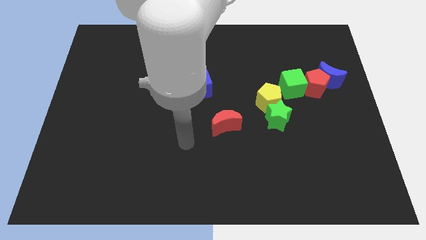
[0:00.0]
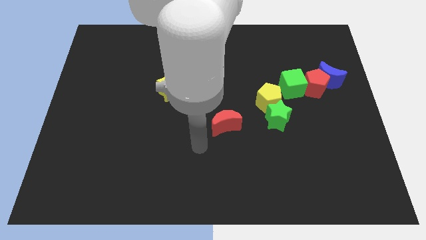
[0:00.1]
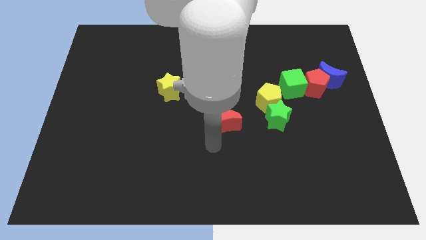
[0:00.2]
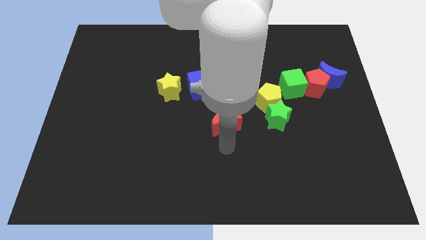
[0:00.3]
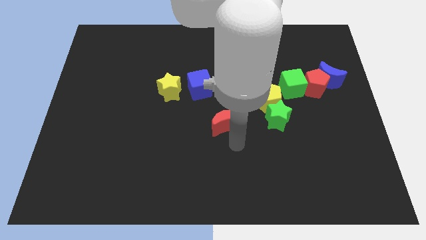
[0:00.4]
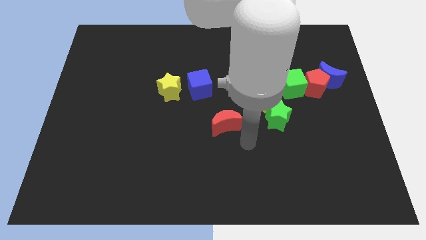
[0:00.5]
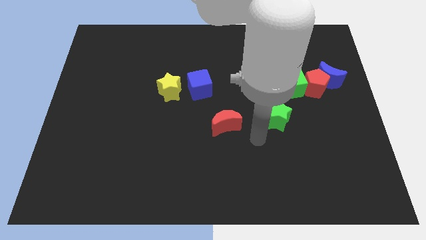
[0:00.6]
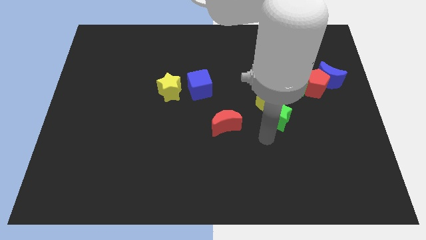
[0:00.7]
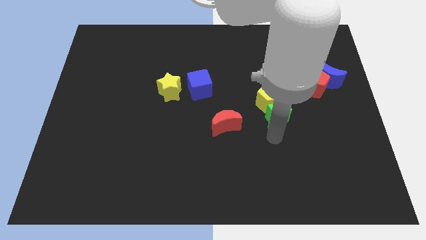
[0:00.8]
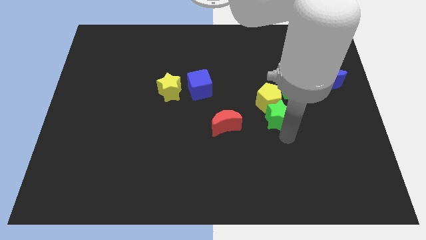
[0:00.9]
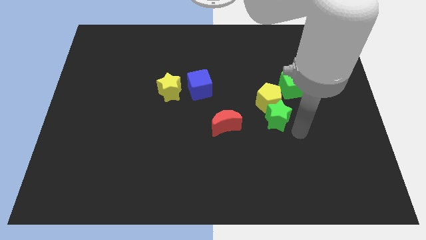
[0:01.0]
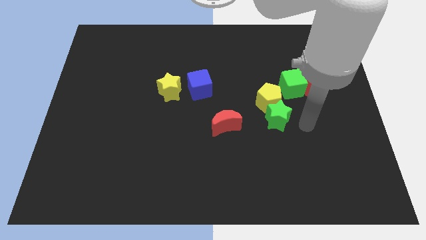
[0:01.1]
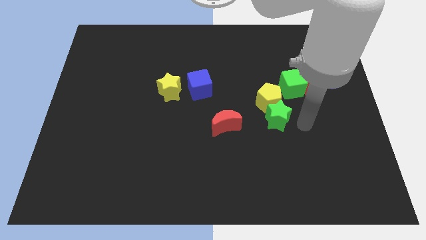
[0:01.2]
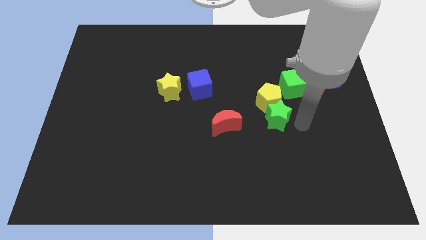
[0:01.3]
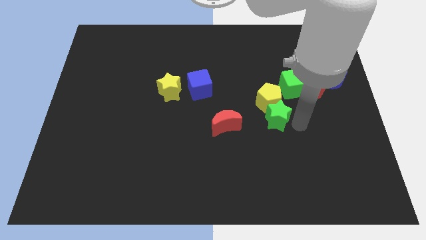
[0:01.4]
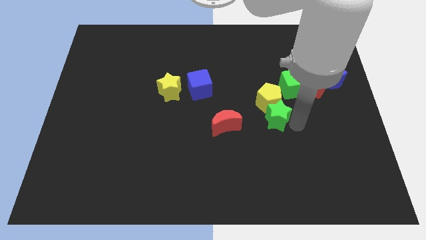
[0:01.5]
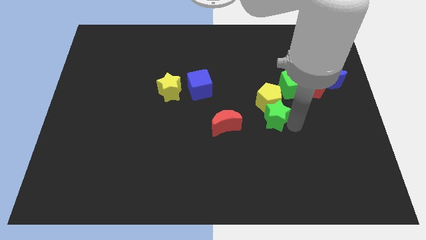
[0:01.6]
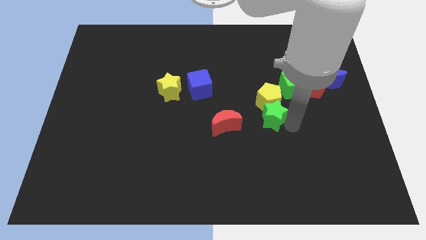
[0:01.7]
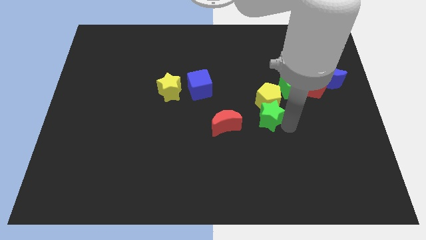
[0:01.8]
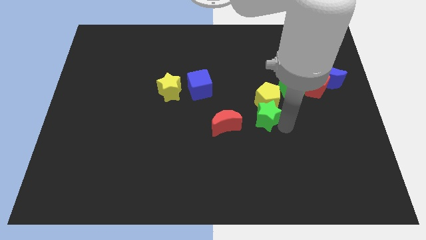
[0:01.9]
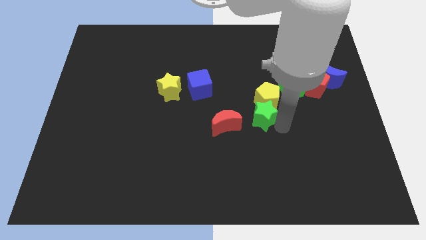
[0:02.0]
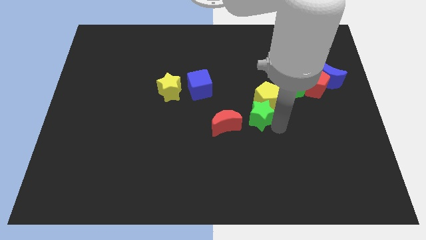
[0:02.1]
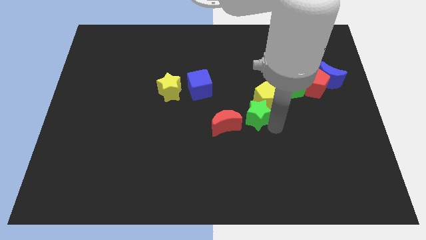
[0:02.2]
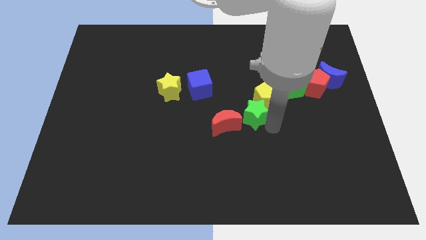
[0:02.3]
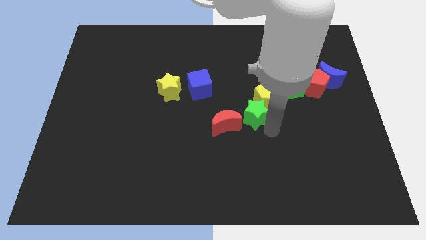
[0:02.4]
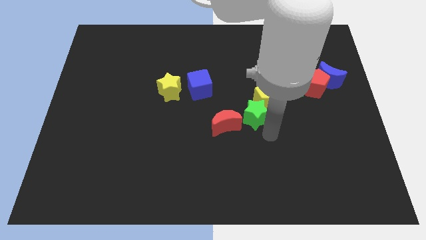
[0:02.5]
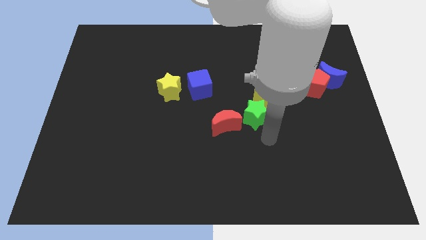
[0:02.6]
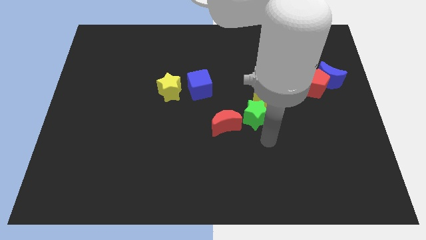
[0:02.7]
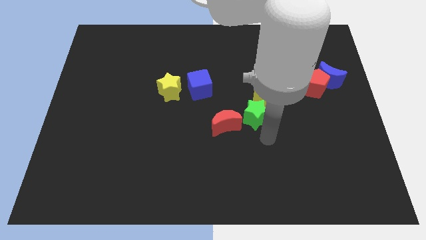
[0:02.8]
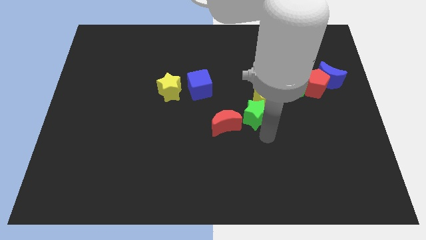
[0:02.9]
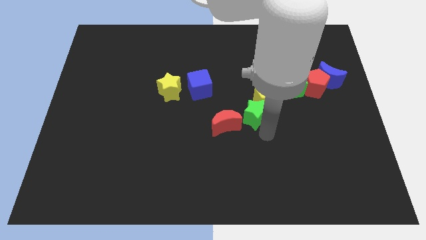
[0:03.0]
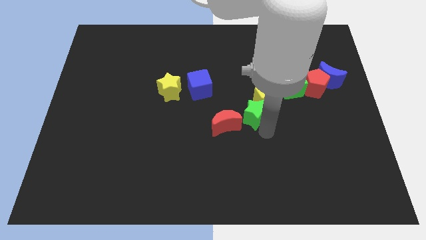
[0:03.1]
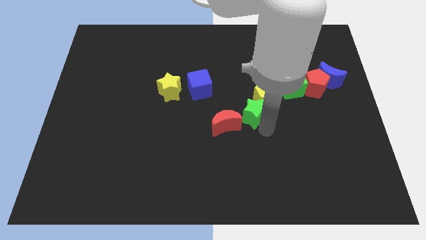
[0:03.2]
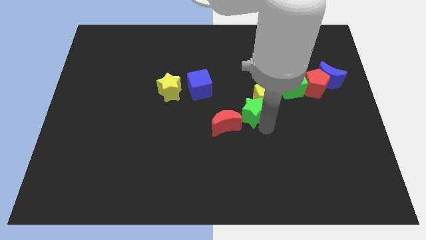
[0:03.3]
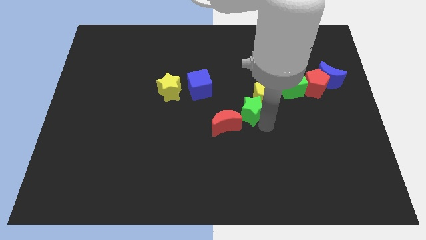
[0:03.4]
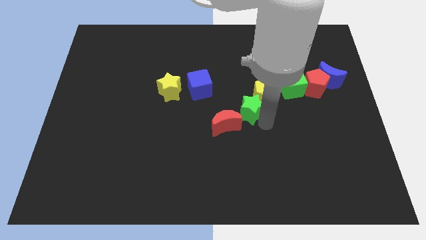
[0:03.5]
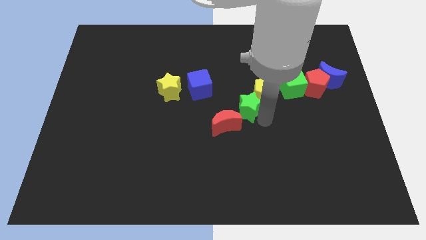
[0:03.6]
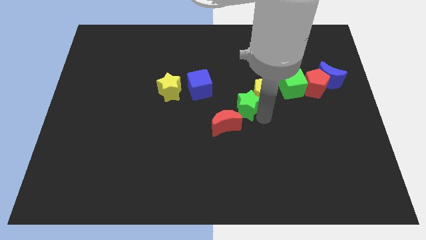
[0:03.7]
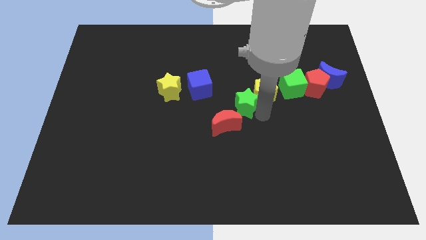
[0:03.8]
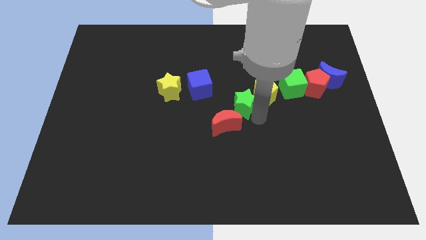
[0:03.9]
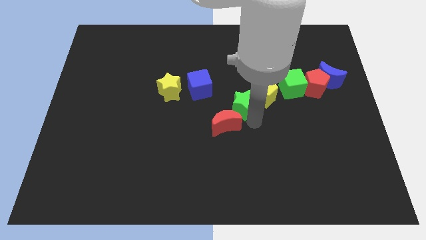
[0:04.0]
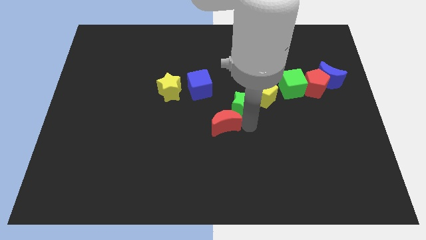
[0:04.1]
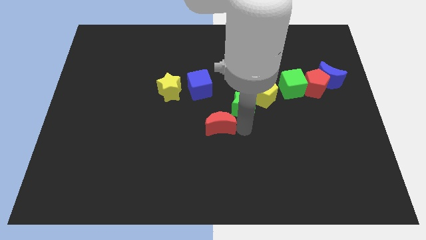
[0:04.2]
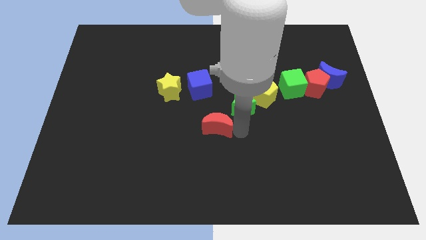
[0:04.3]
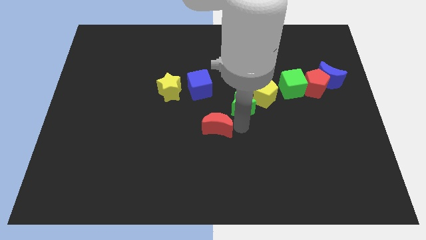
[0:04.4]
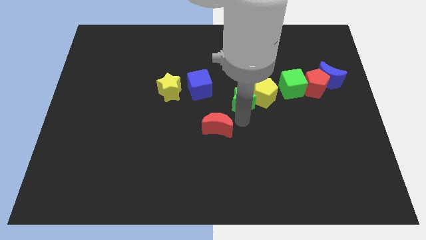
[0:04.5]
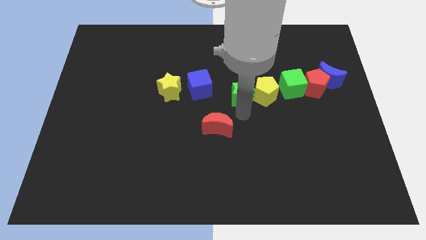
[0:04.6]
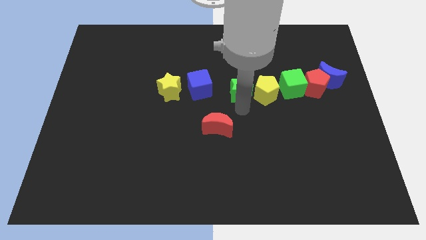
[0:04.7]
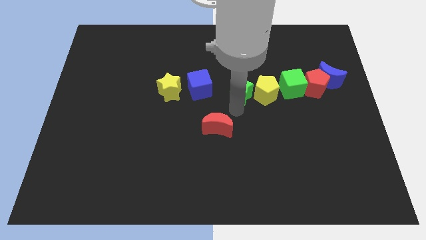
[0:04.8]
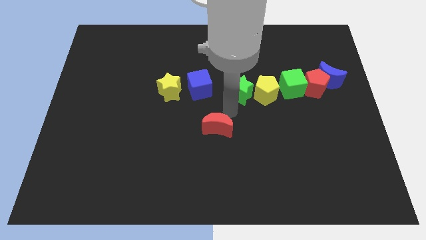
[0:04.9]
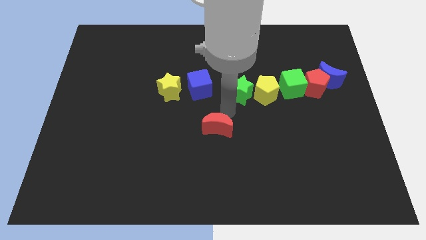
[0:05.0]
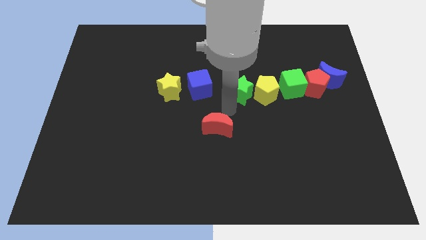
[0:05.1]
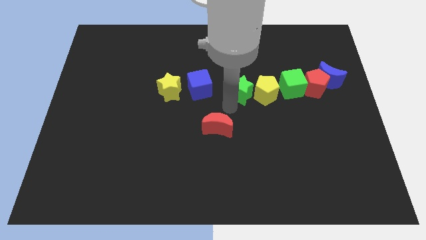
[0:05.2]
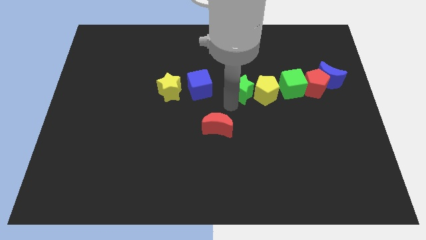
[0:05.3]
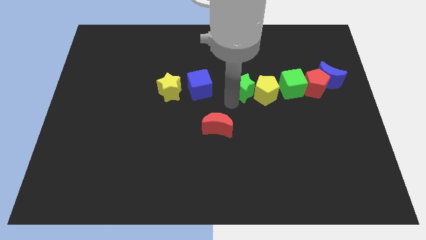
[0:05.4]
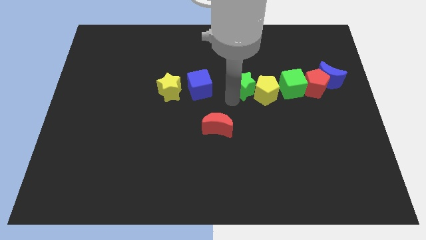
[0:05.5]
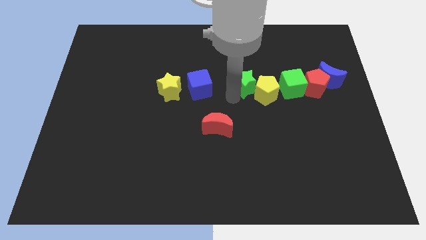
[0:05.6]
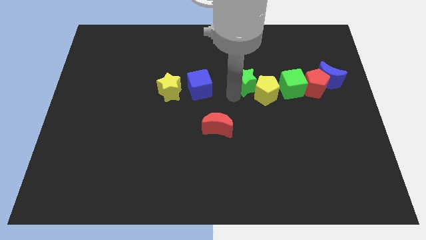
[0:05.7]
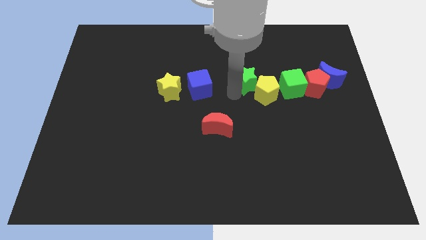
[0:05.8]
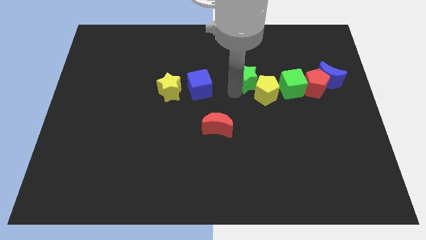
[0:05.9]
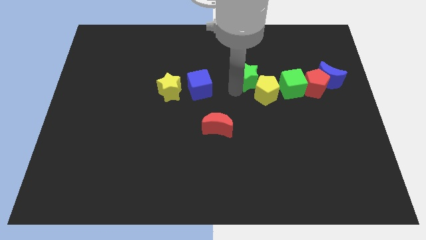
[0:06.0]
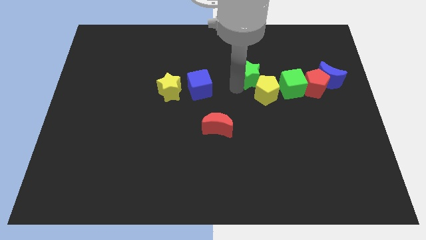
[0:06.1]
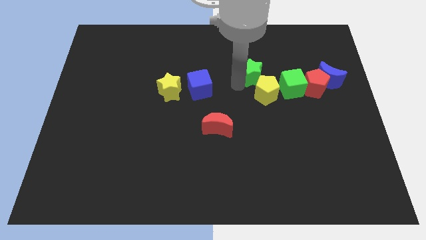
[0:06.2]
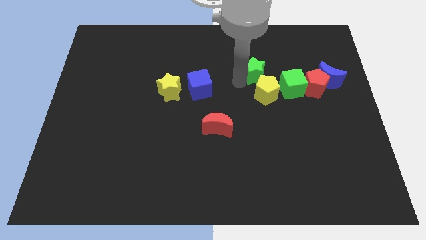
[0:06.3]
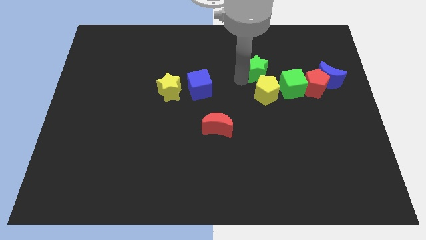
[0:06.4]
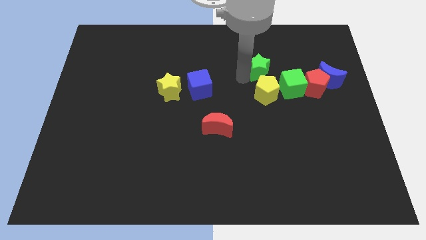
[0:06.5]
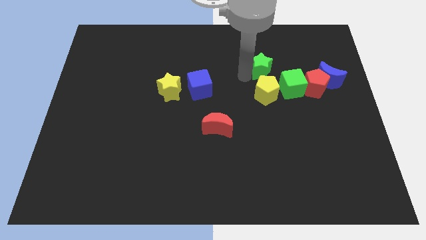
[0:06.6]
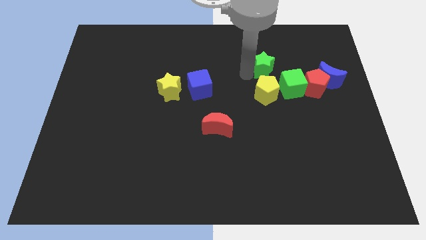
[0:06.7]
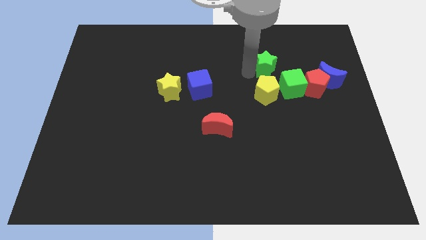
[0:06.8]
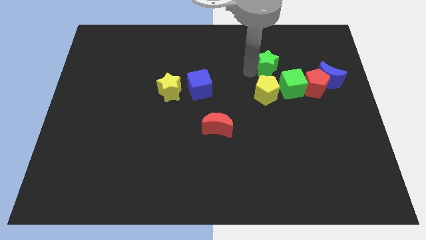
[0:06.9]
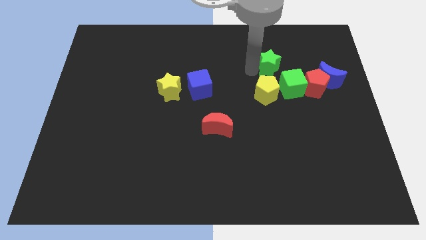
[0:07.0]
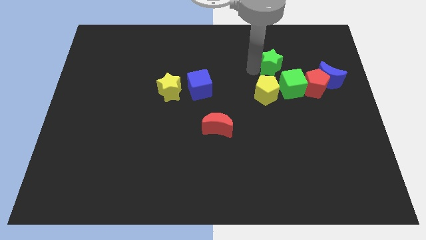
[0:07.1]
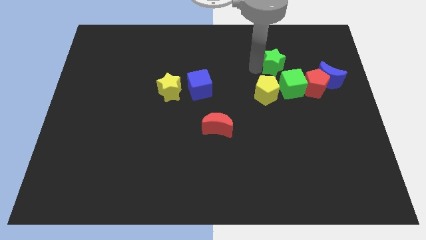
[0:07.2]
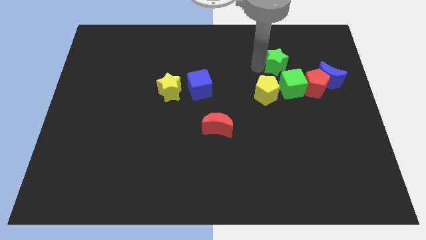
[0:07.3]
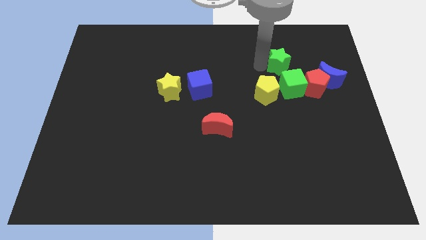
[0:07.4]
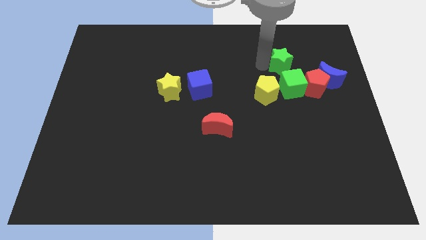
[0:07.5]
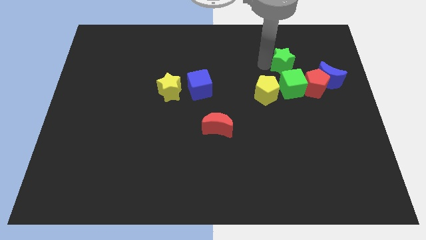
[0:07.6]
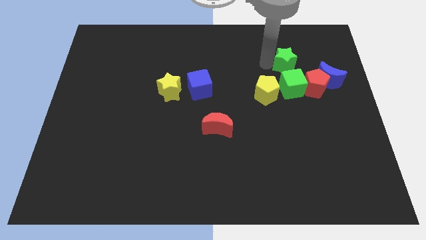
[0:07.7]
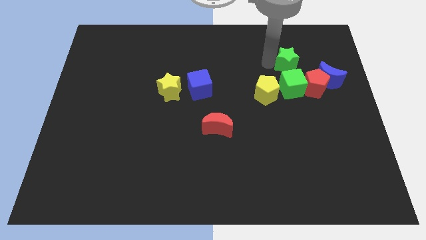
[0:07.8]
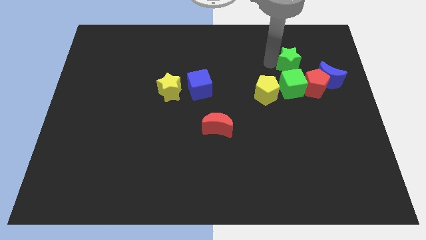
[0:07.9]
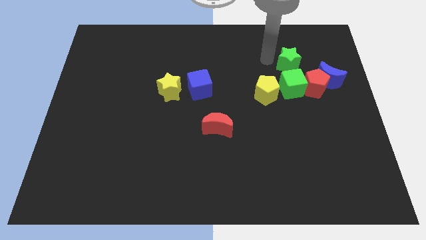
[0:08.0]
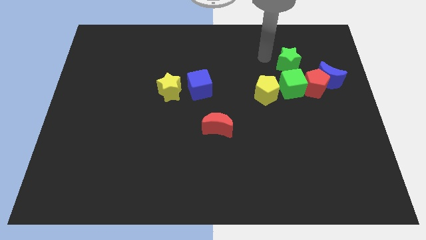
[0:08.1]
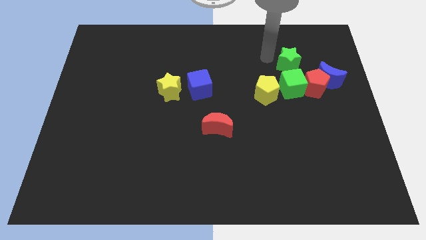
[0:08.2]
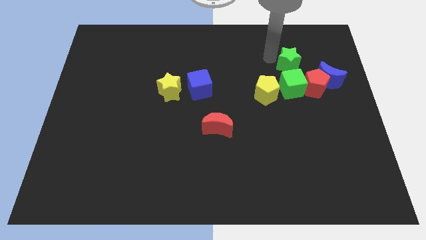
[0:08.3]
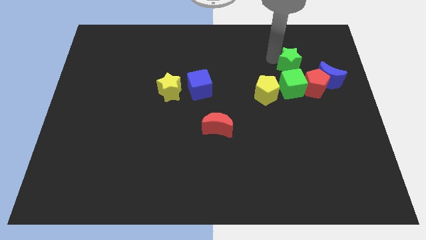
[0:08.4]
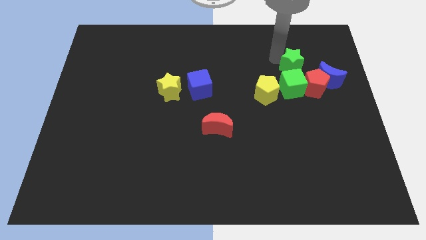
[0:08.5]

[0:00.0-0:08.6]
slide the green star to the top right side of the green cube
